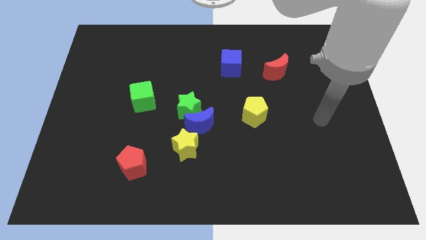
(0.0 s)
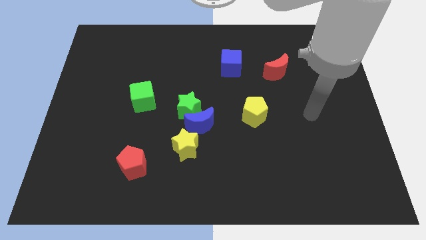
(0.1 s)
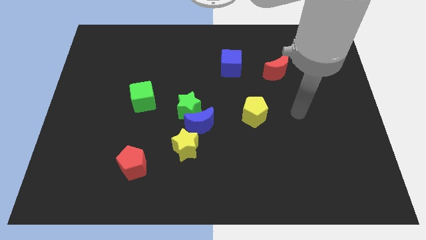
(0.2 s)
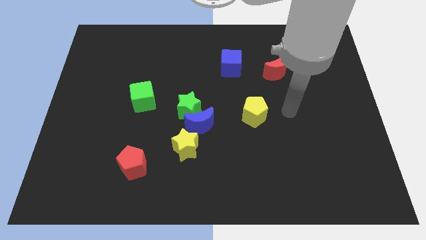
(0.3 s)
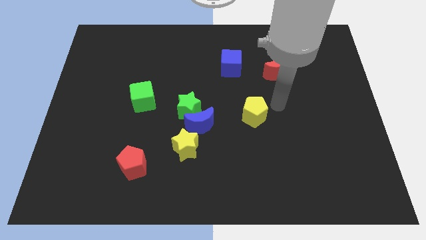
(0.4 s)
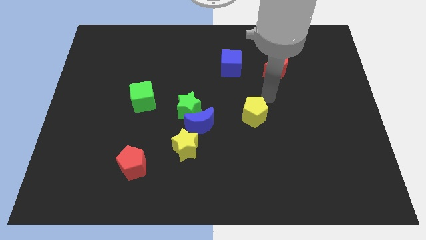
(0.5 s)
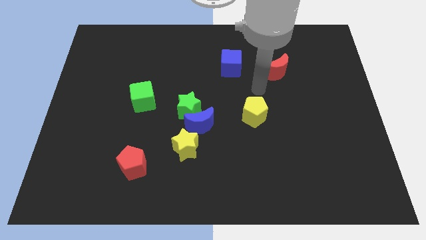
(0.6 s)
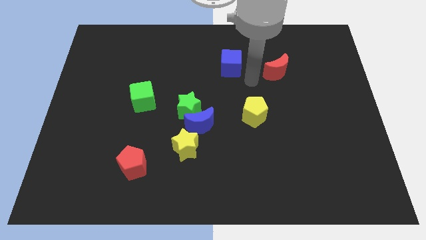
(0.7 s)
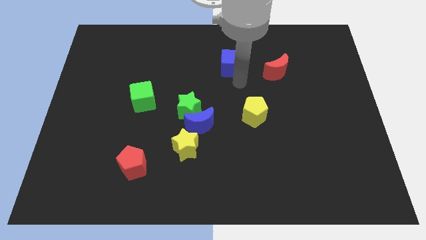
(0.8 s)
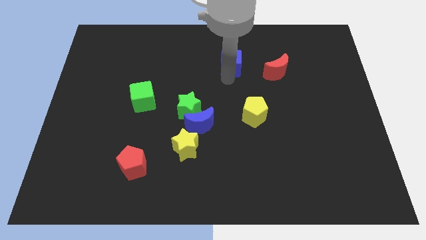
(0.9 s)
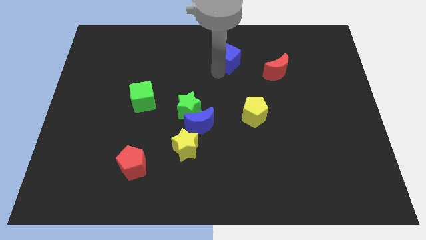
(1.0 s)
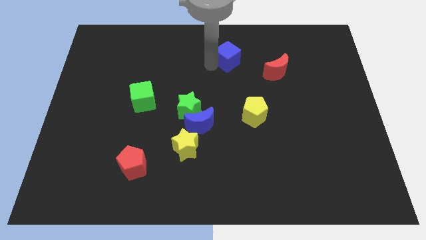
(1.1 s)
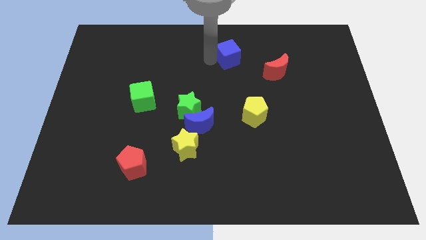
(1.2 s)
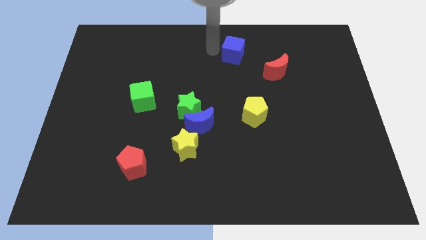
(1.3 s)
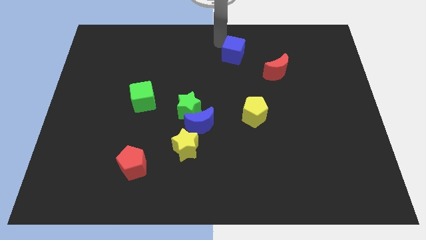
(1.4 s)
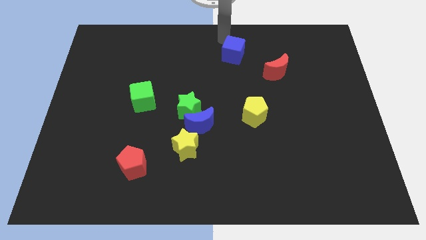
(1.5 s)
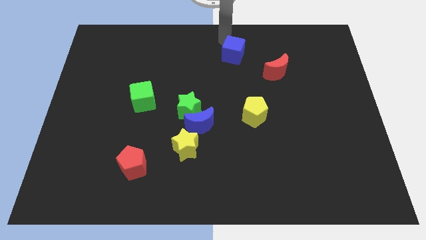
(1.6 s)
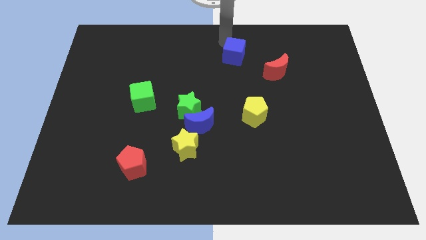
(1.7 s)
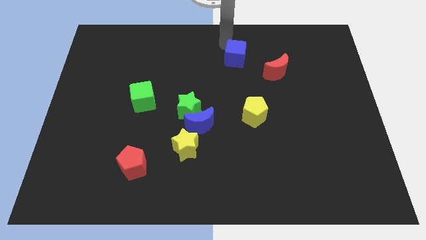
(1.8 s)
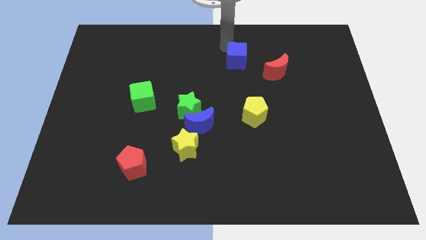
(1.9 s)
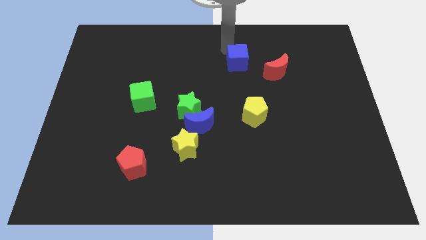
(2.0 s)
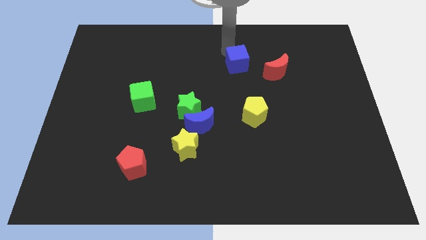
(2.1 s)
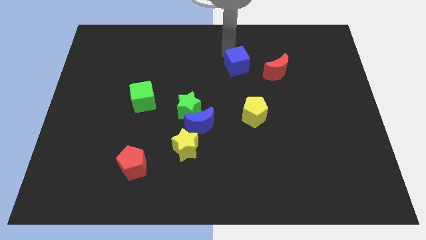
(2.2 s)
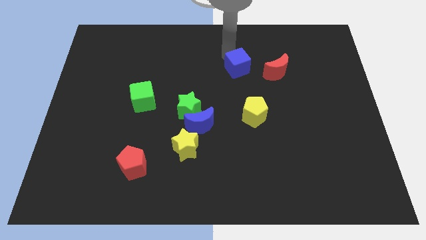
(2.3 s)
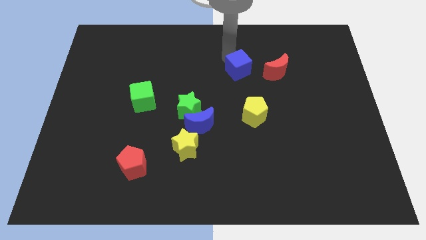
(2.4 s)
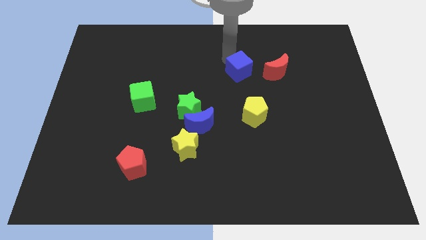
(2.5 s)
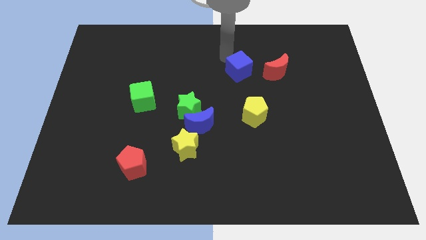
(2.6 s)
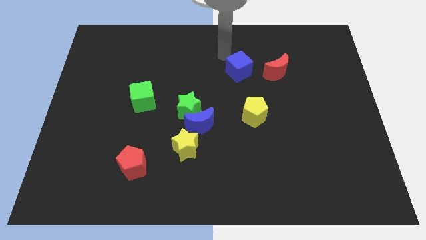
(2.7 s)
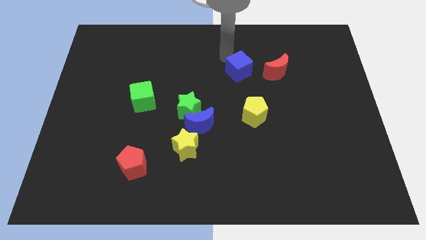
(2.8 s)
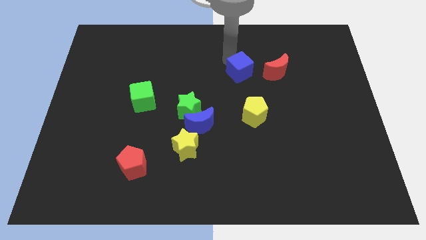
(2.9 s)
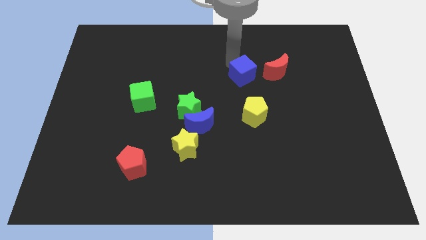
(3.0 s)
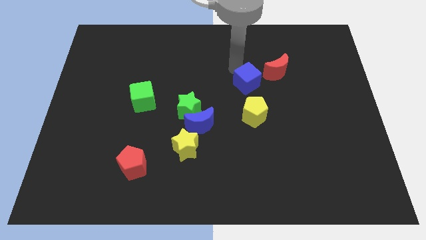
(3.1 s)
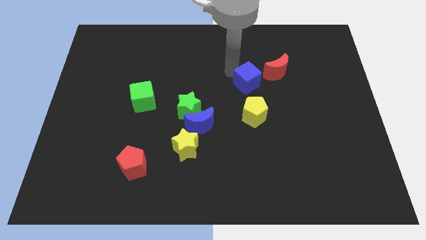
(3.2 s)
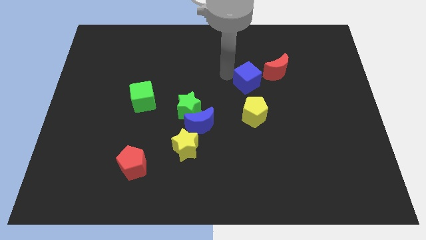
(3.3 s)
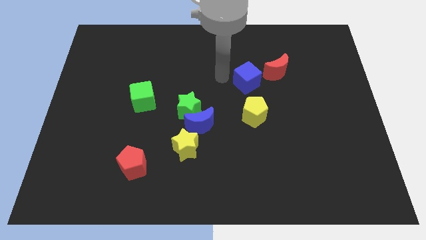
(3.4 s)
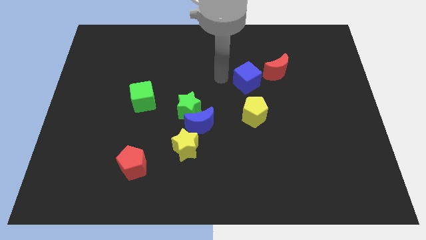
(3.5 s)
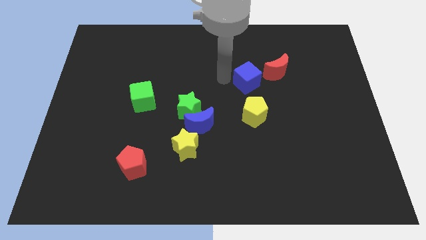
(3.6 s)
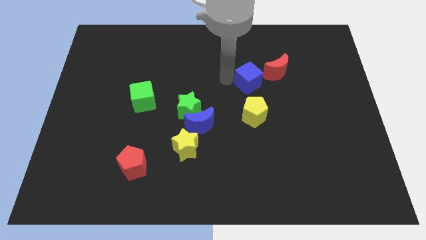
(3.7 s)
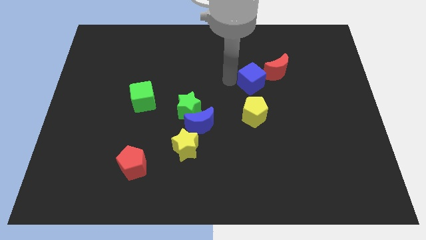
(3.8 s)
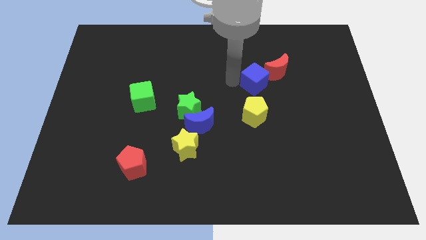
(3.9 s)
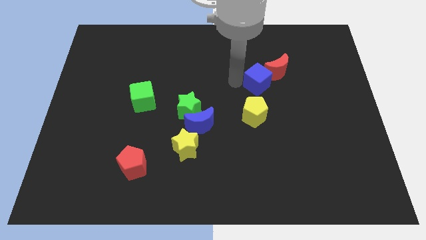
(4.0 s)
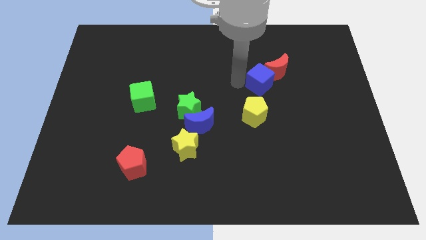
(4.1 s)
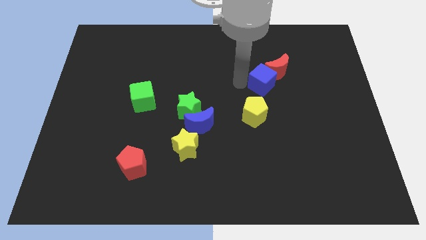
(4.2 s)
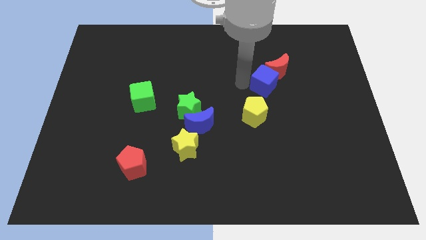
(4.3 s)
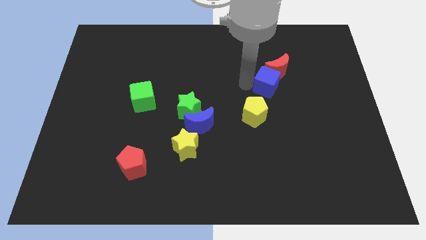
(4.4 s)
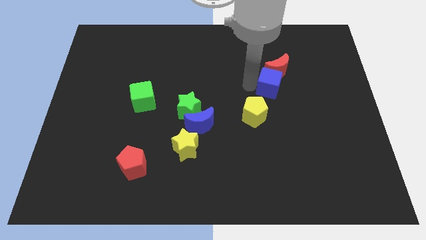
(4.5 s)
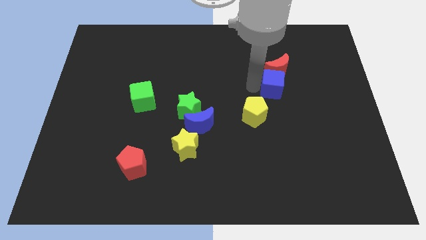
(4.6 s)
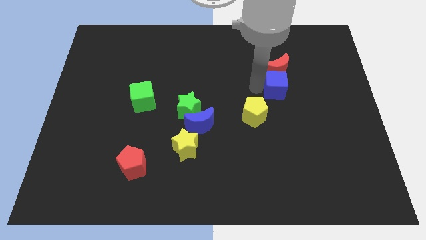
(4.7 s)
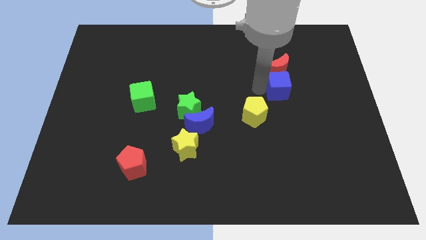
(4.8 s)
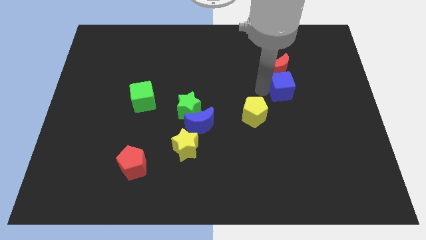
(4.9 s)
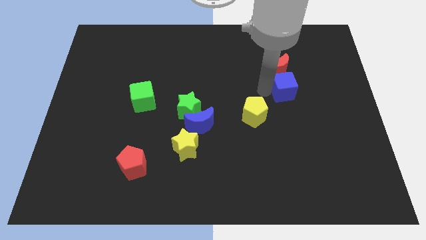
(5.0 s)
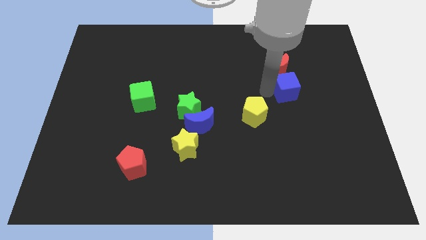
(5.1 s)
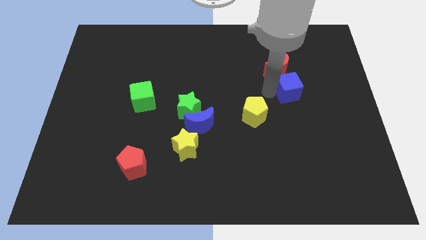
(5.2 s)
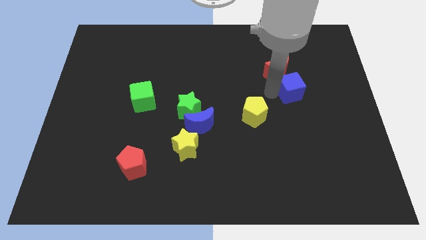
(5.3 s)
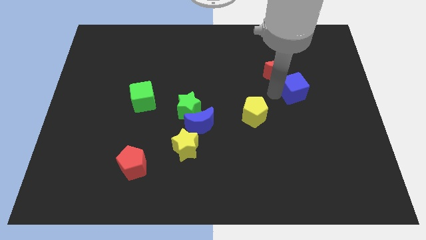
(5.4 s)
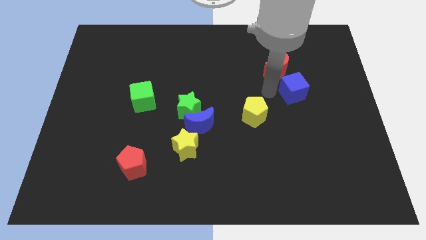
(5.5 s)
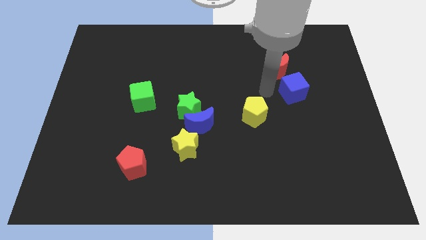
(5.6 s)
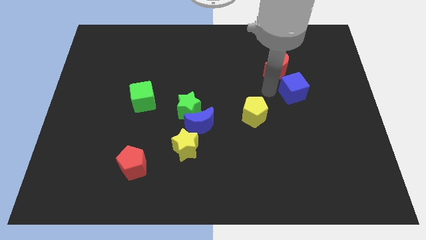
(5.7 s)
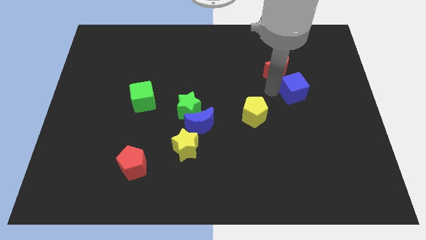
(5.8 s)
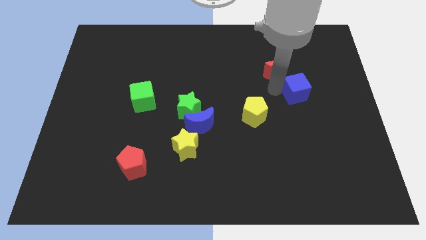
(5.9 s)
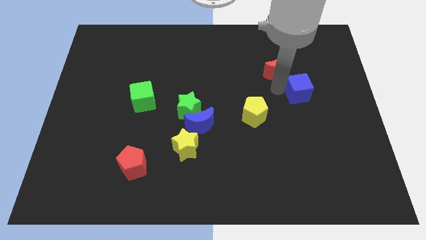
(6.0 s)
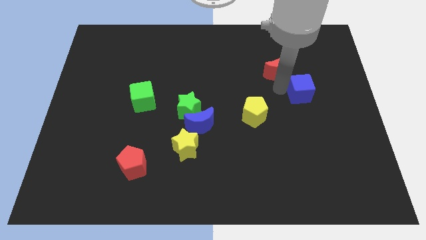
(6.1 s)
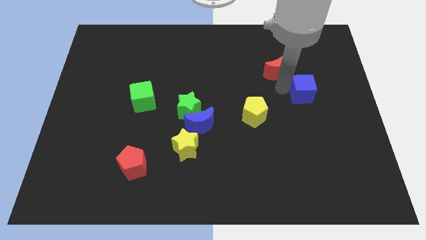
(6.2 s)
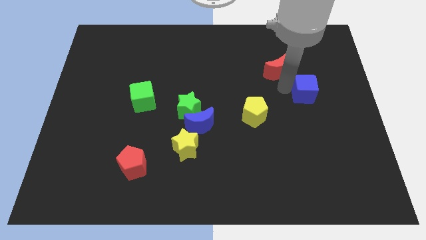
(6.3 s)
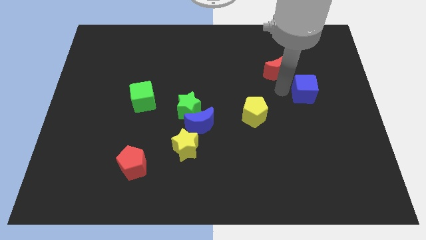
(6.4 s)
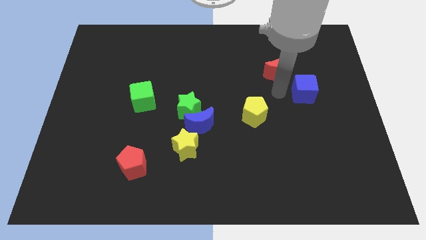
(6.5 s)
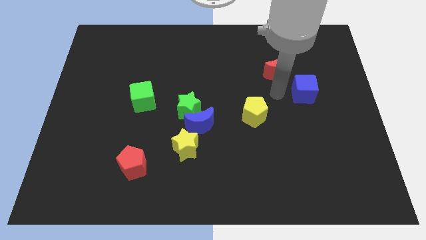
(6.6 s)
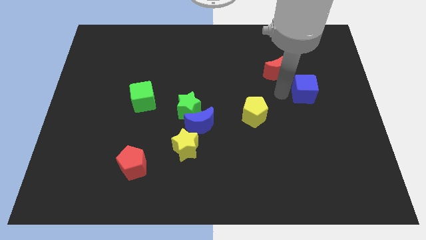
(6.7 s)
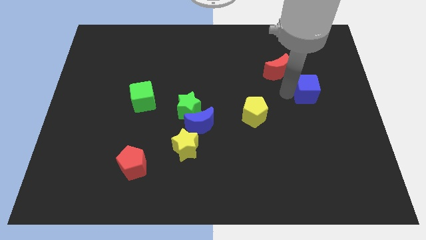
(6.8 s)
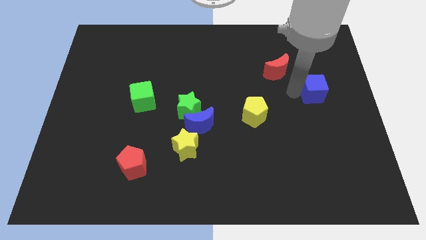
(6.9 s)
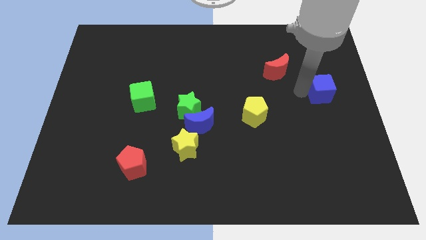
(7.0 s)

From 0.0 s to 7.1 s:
push the blue cube to the center right
